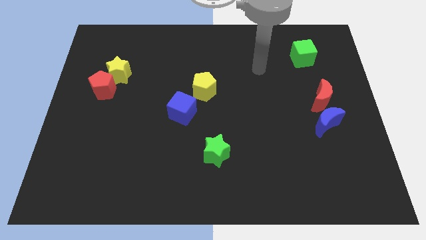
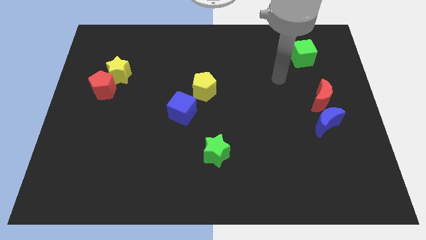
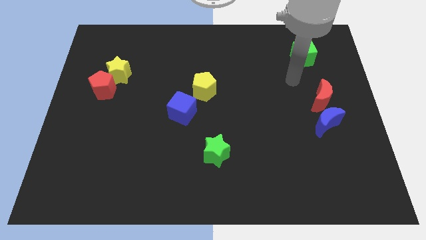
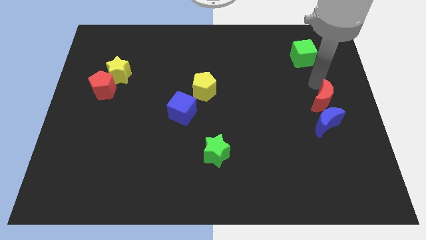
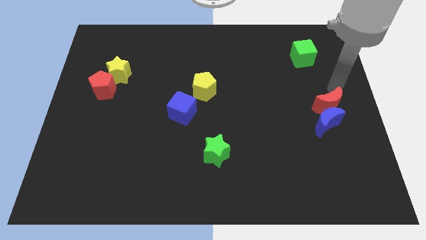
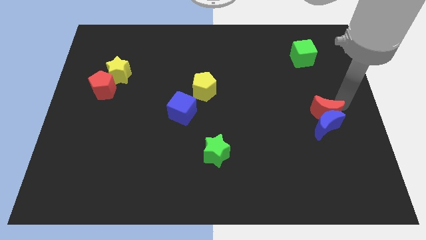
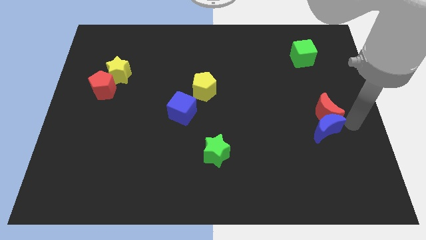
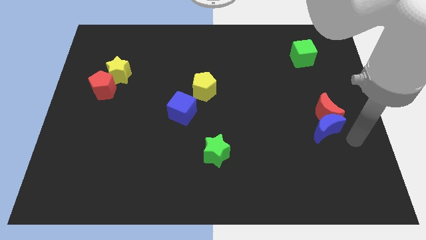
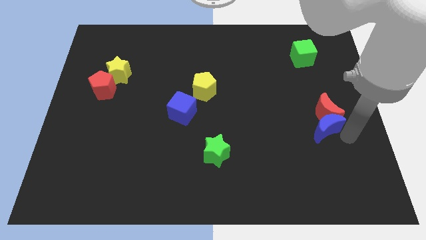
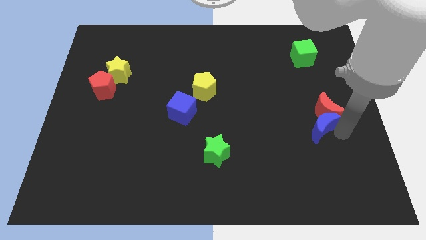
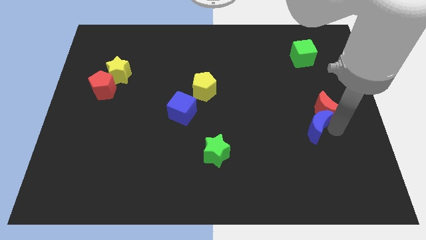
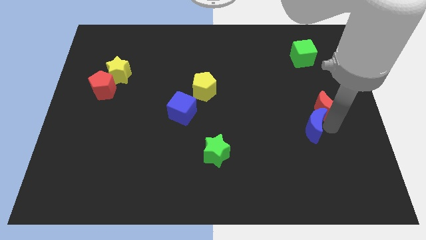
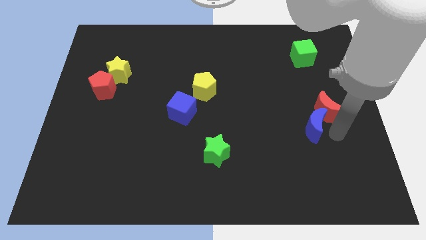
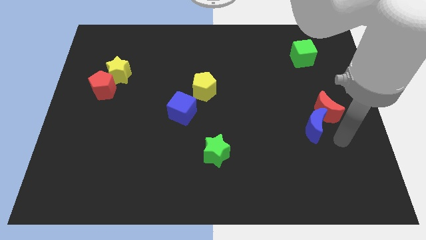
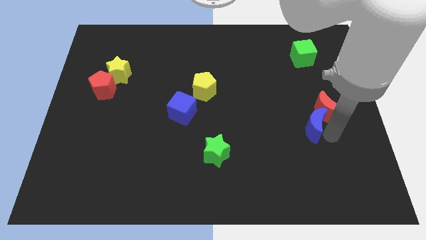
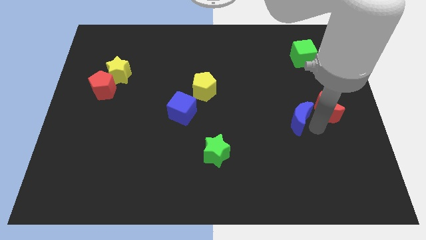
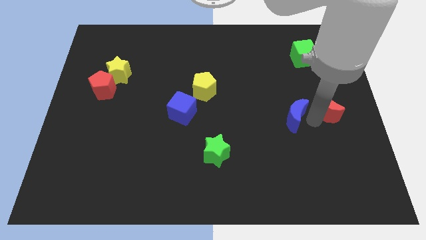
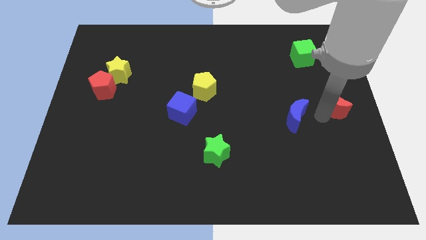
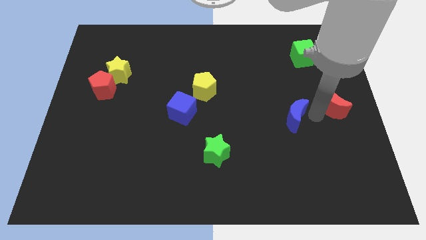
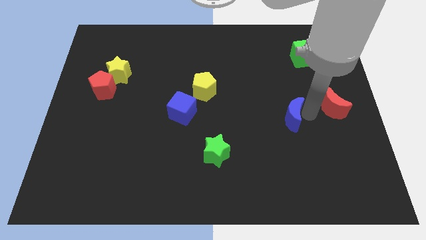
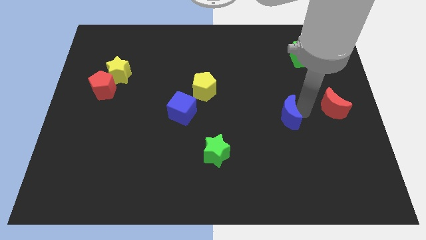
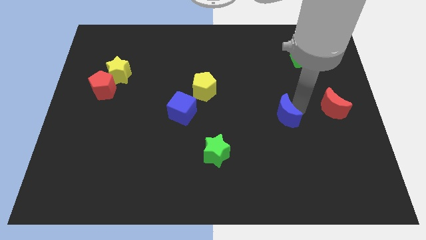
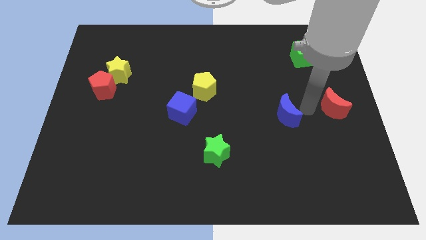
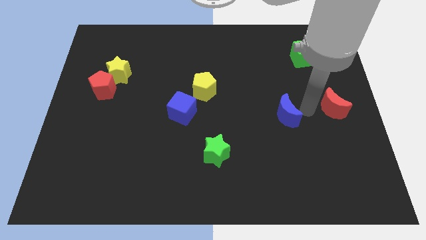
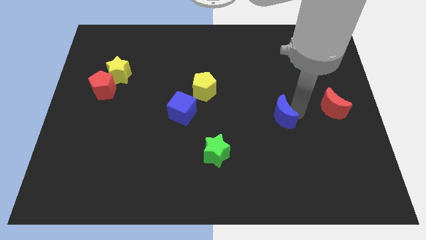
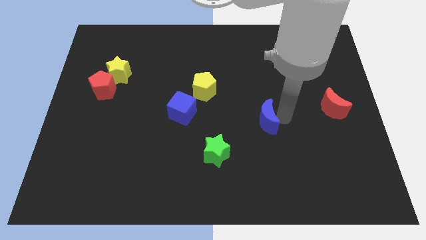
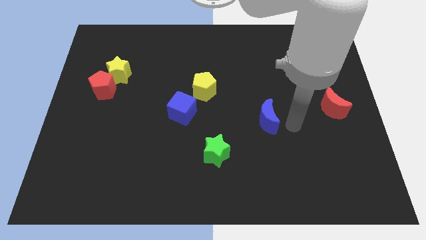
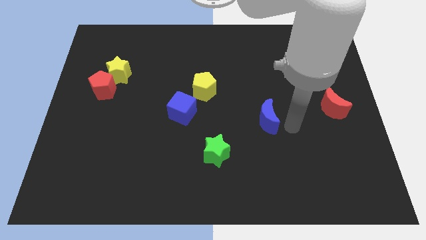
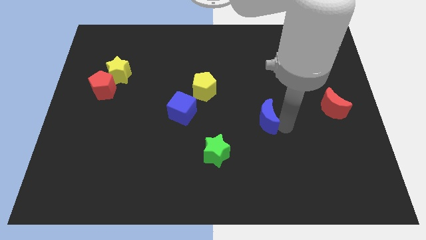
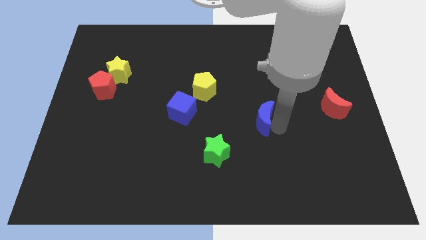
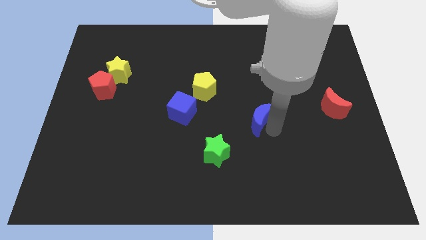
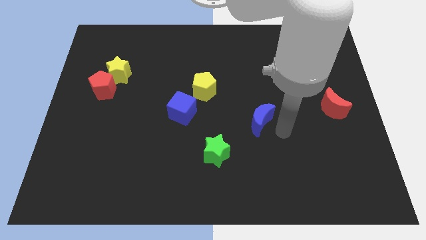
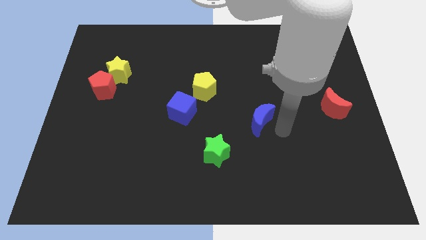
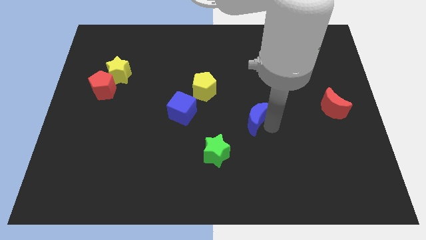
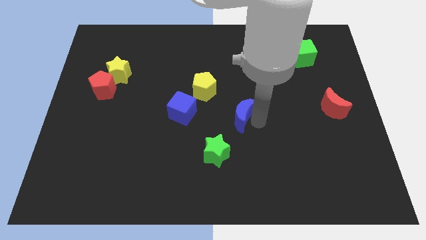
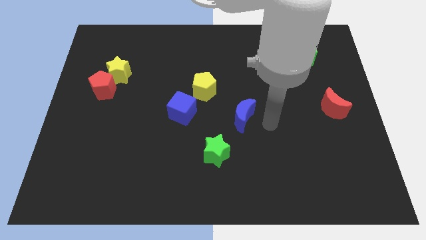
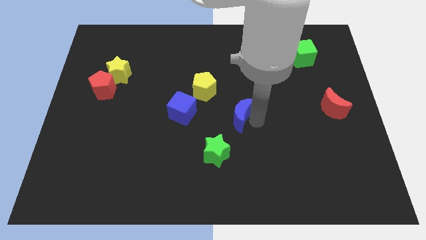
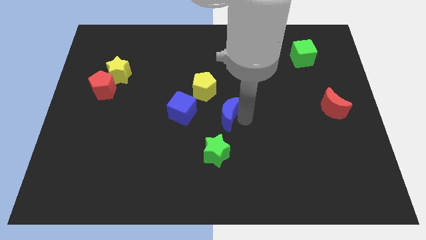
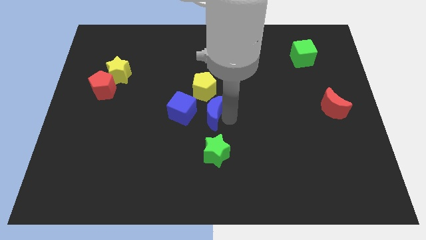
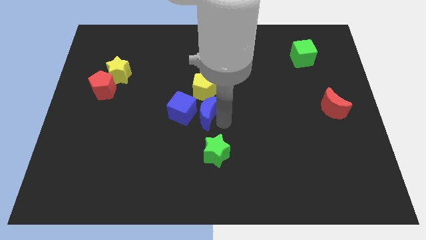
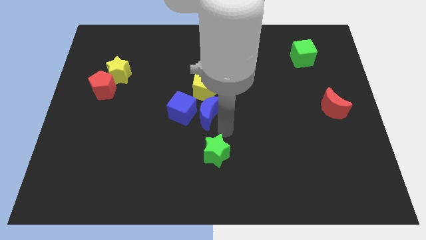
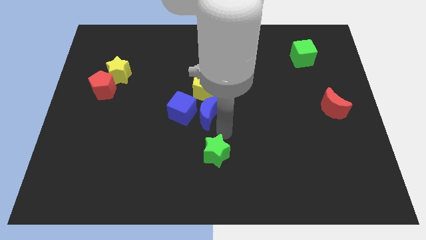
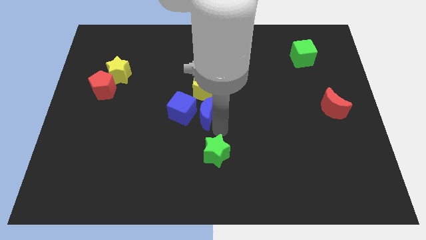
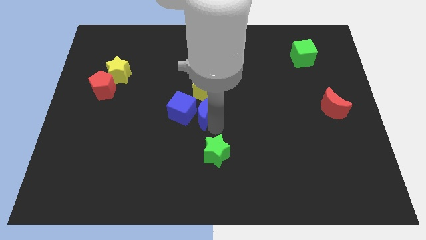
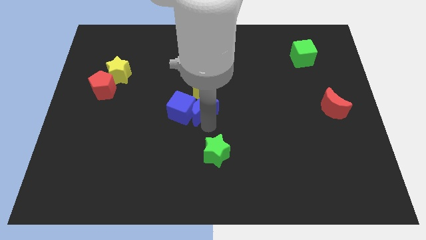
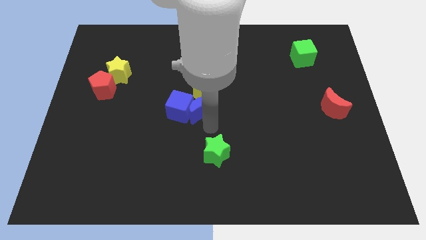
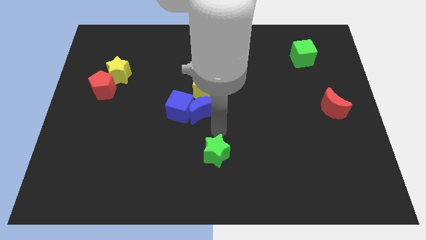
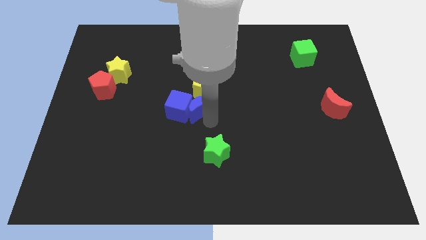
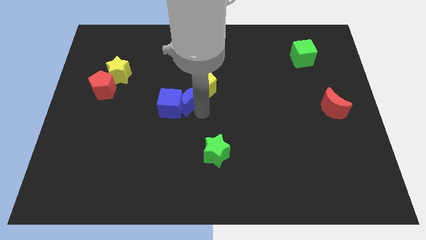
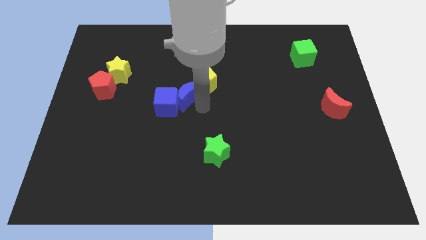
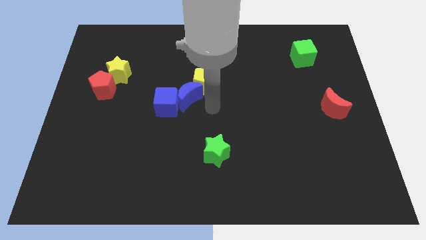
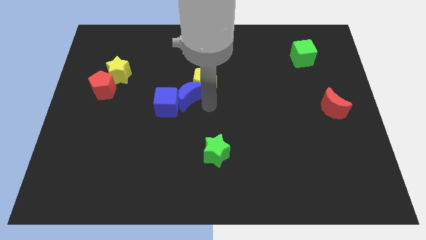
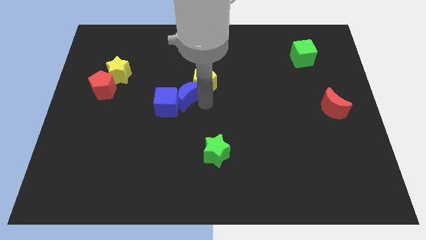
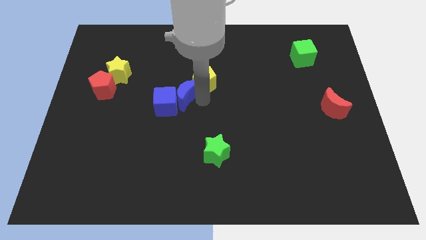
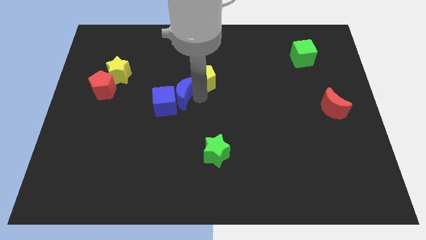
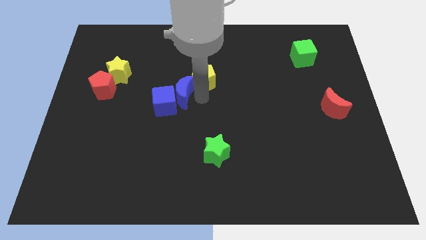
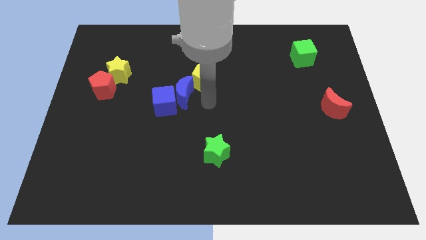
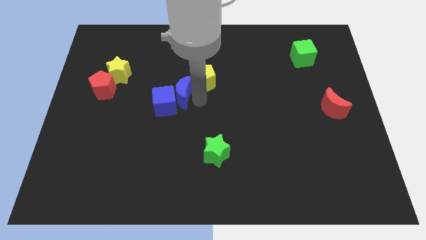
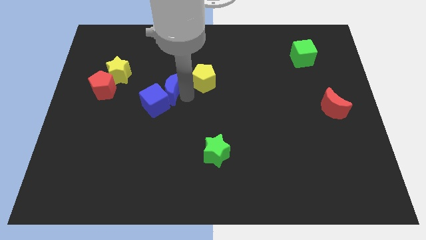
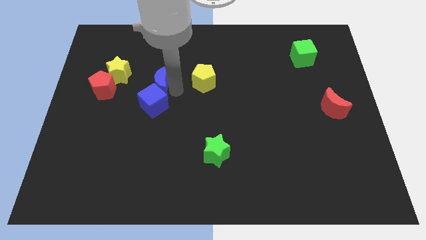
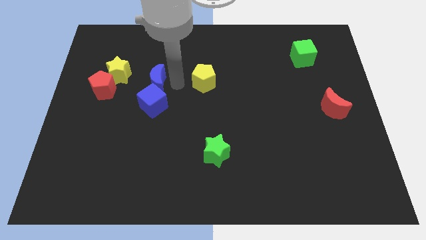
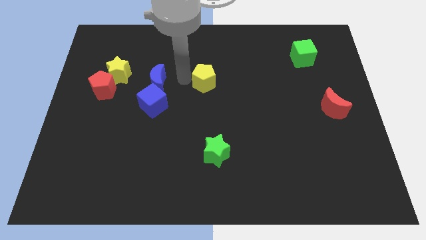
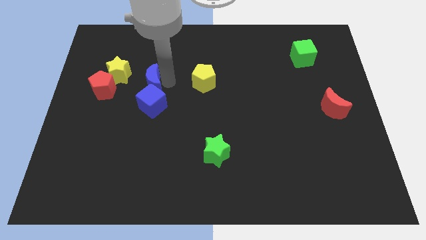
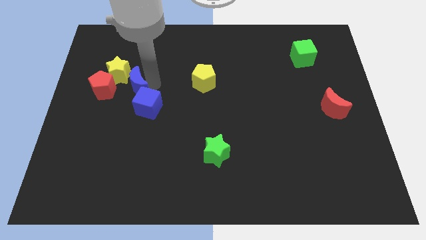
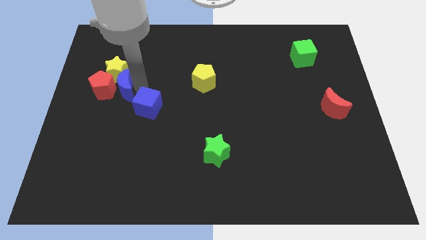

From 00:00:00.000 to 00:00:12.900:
slide the blue moon to the red pentagon
